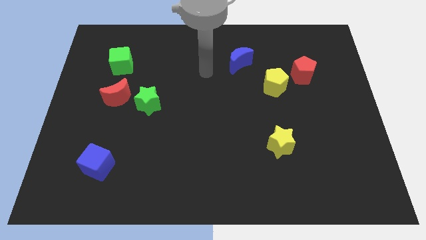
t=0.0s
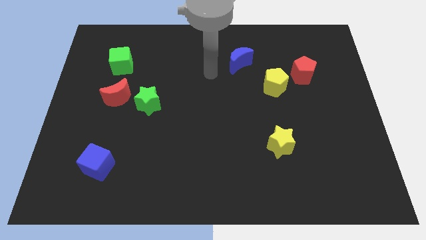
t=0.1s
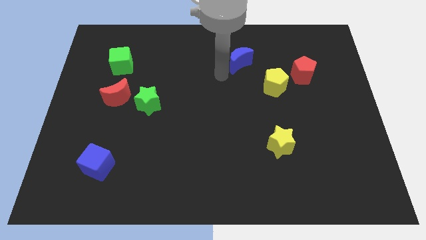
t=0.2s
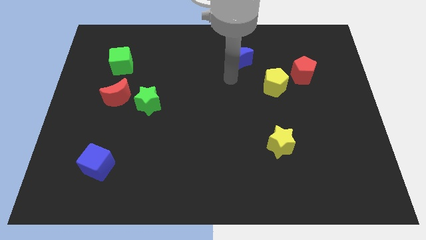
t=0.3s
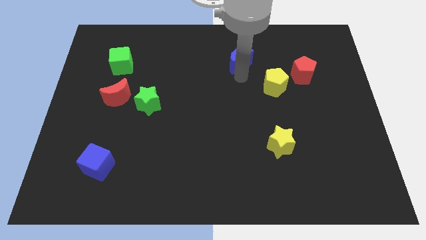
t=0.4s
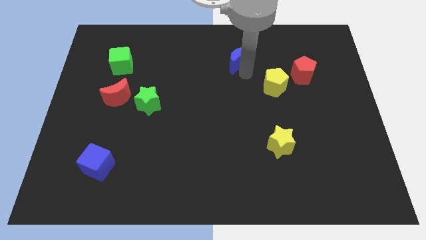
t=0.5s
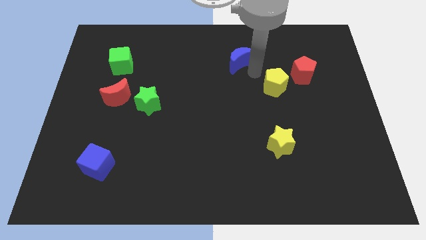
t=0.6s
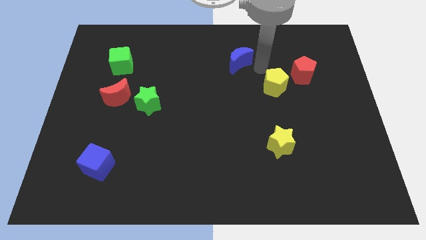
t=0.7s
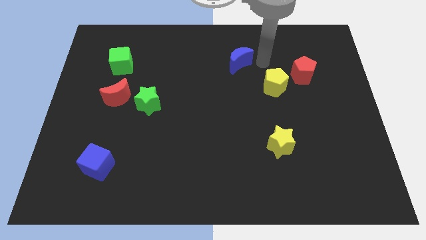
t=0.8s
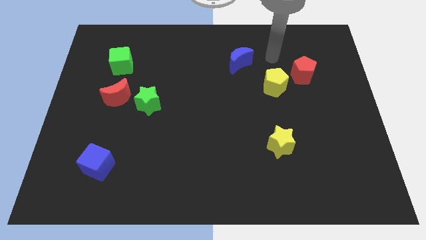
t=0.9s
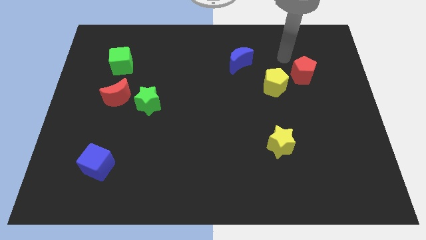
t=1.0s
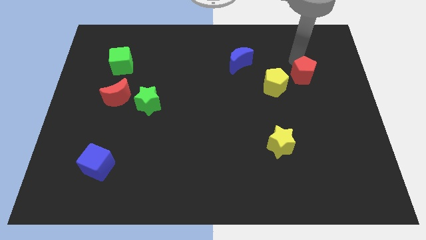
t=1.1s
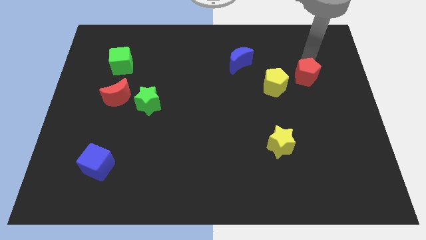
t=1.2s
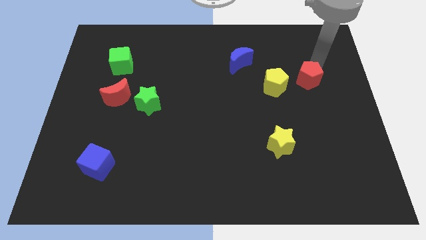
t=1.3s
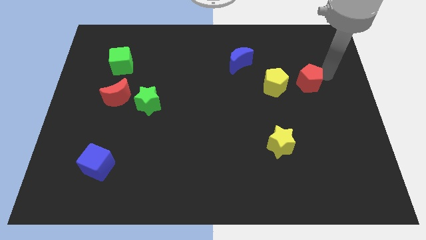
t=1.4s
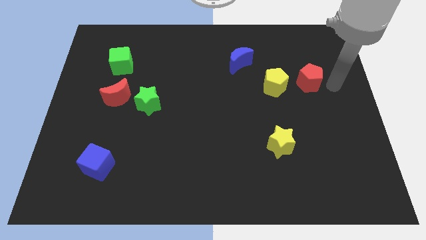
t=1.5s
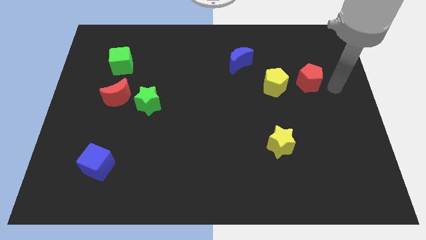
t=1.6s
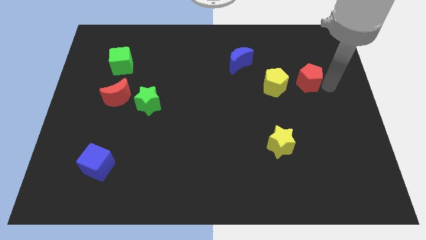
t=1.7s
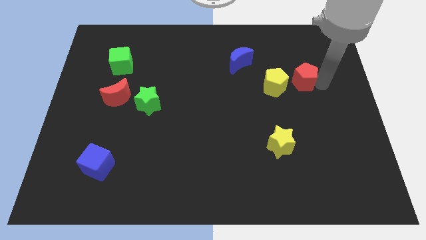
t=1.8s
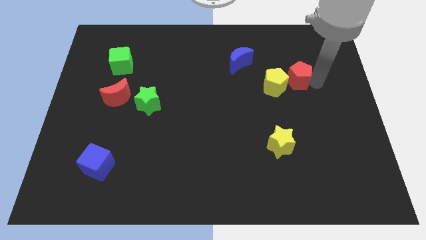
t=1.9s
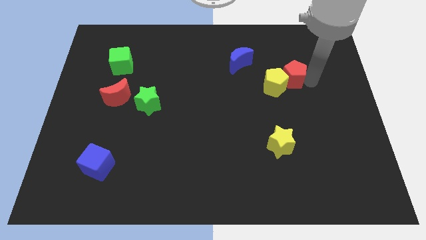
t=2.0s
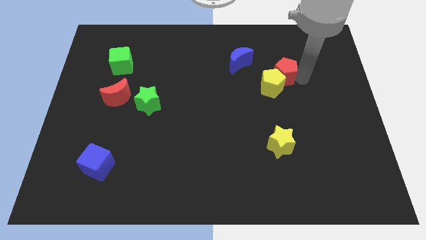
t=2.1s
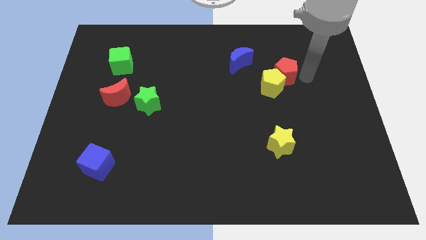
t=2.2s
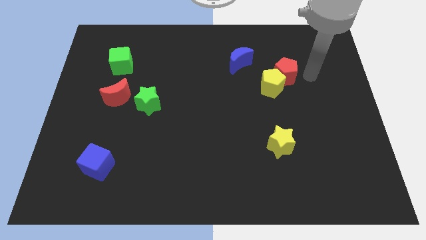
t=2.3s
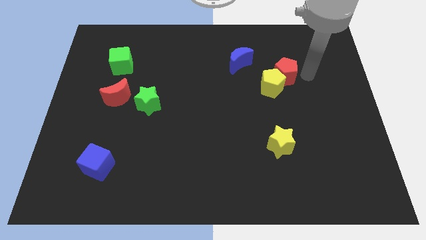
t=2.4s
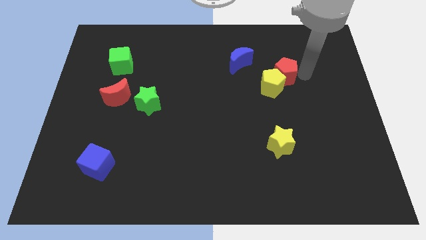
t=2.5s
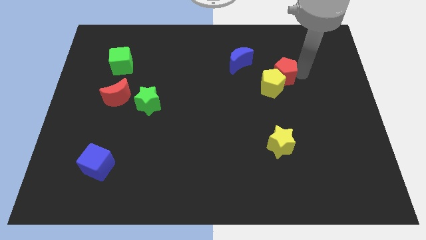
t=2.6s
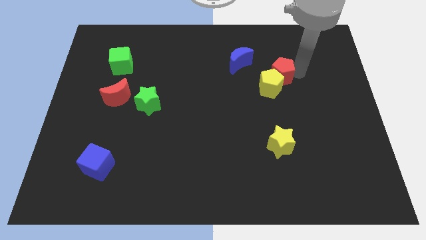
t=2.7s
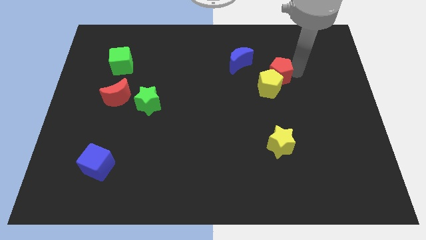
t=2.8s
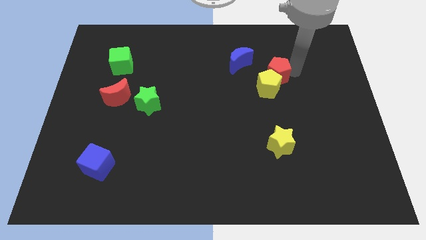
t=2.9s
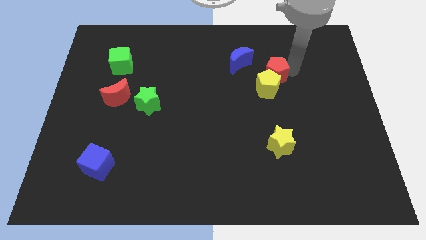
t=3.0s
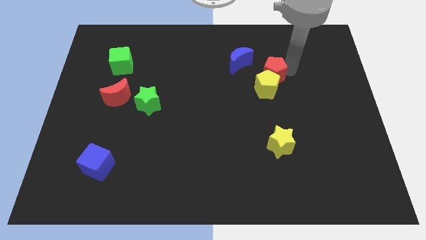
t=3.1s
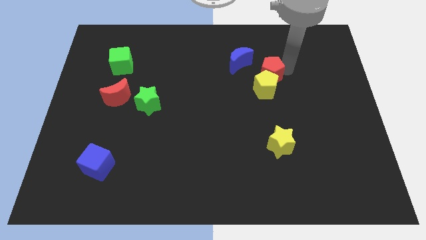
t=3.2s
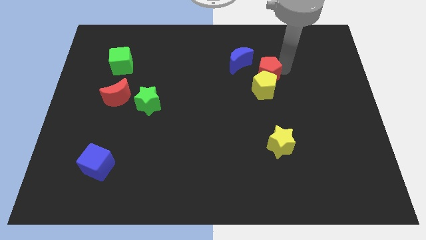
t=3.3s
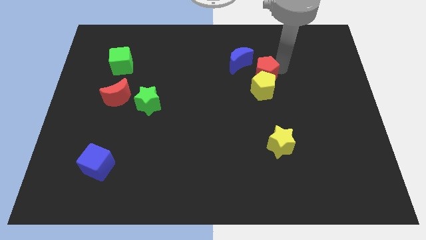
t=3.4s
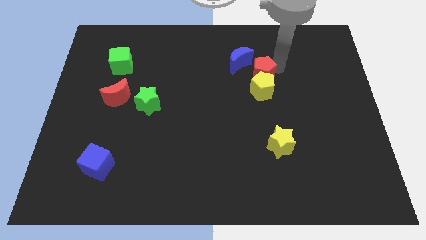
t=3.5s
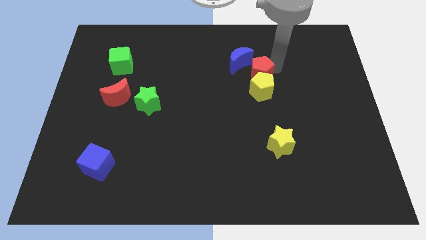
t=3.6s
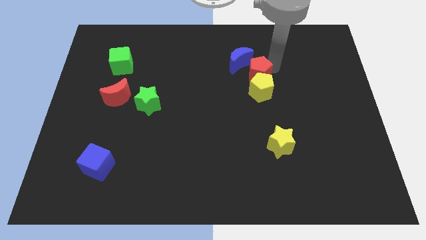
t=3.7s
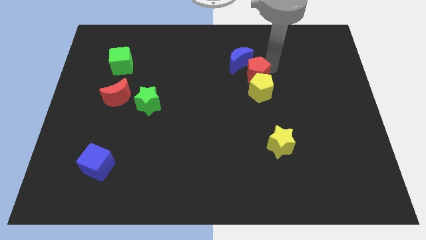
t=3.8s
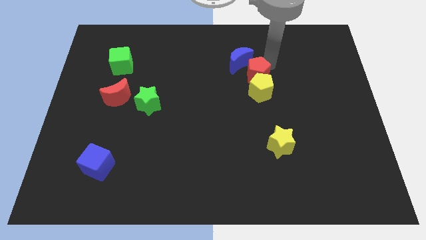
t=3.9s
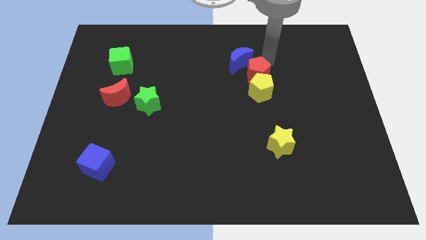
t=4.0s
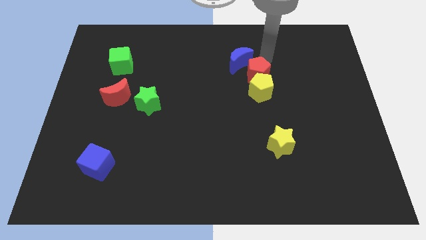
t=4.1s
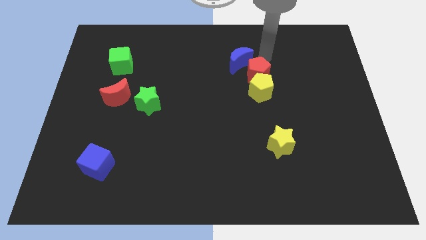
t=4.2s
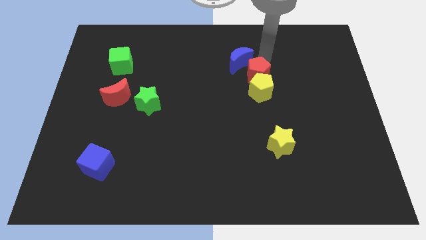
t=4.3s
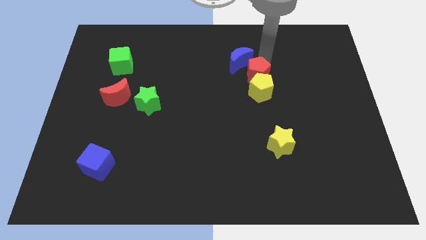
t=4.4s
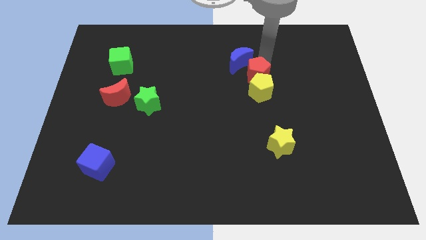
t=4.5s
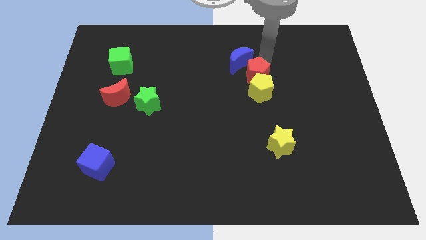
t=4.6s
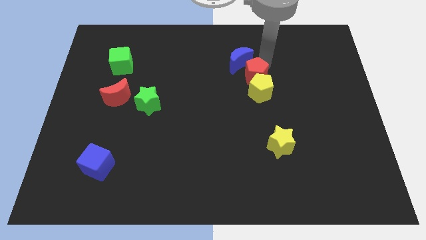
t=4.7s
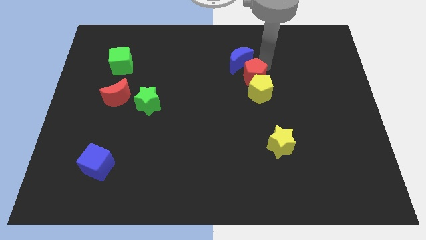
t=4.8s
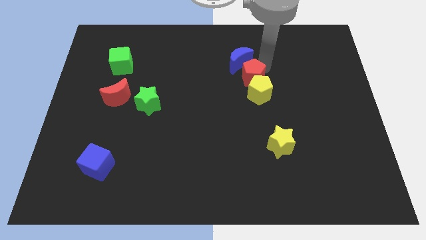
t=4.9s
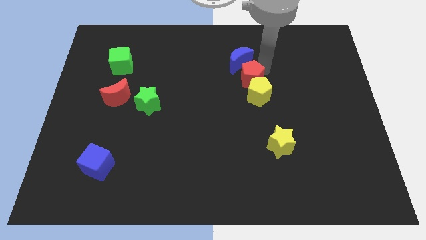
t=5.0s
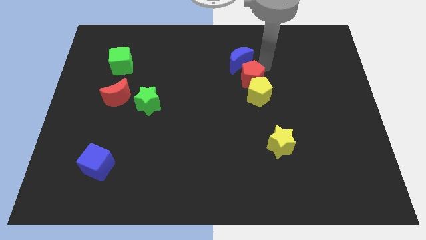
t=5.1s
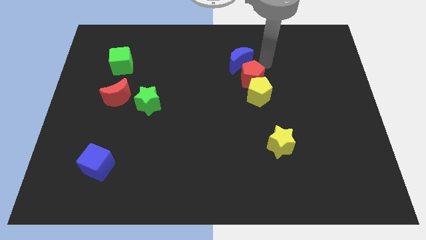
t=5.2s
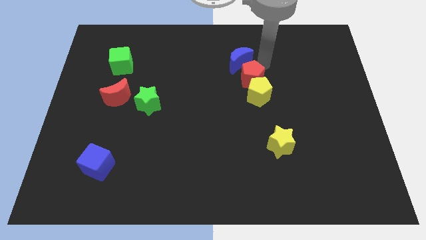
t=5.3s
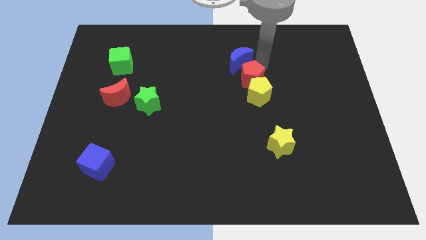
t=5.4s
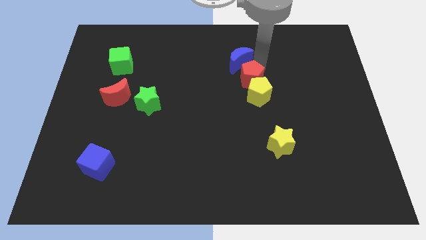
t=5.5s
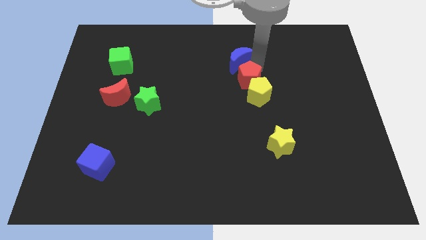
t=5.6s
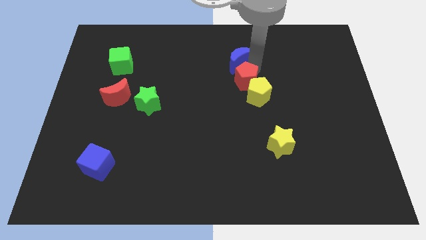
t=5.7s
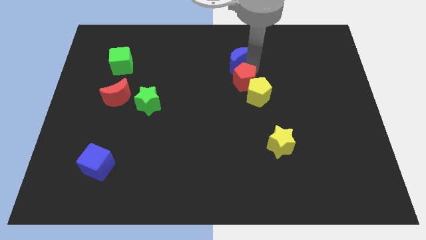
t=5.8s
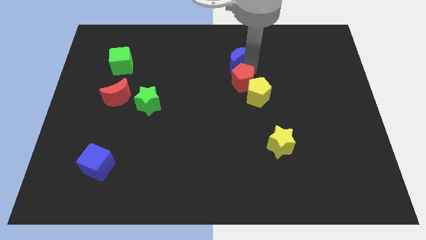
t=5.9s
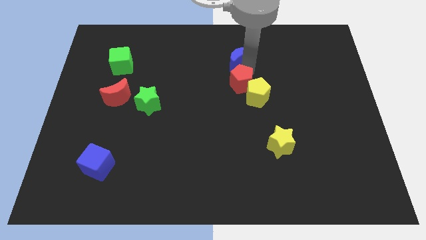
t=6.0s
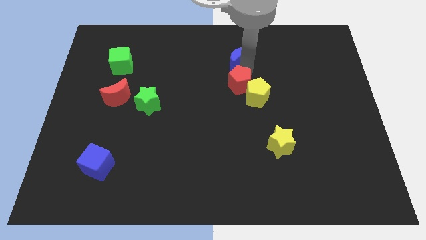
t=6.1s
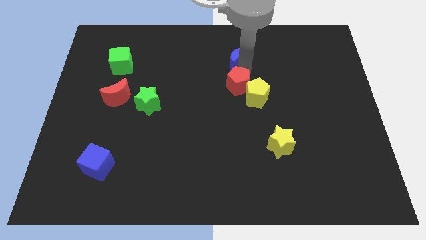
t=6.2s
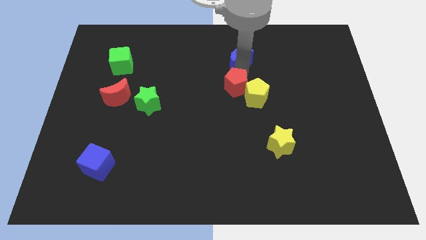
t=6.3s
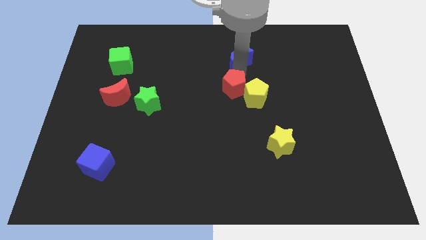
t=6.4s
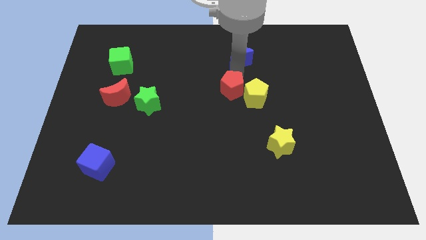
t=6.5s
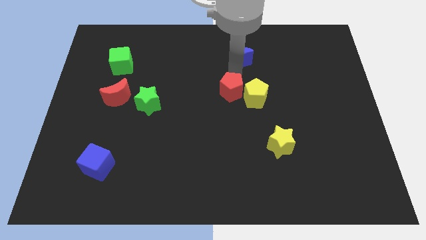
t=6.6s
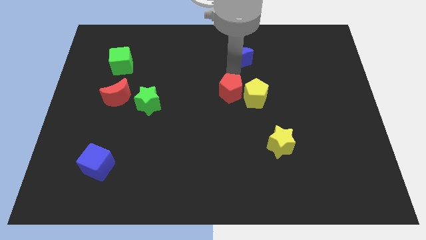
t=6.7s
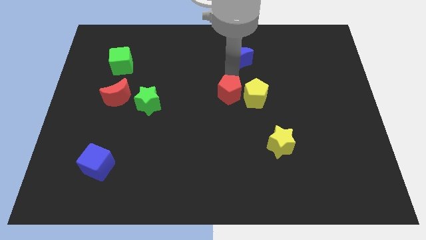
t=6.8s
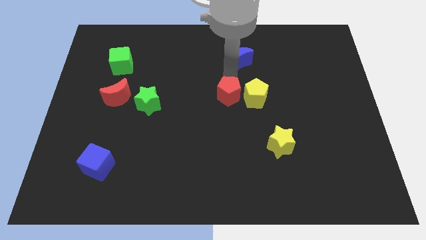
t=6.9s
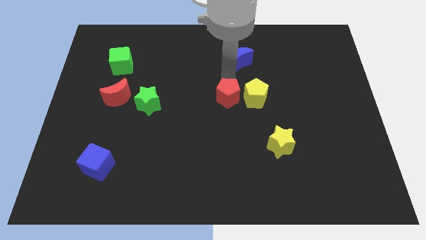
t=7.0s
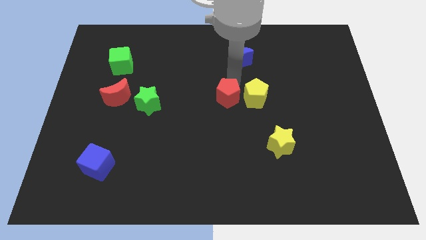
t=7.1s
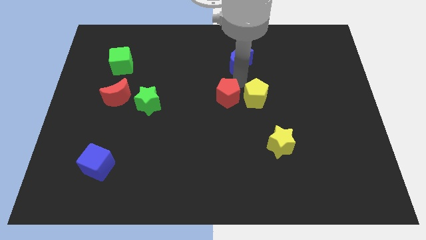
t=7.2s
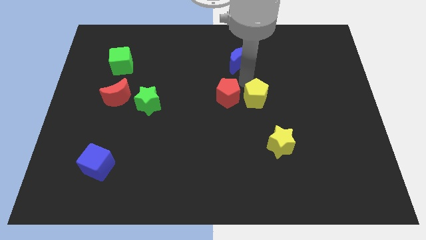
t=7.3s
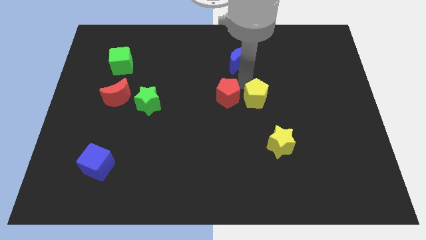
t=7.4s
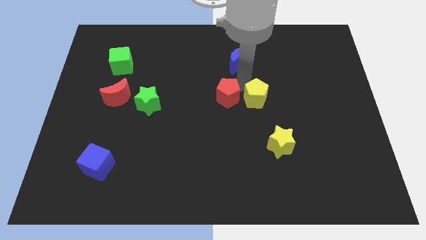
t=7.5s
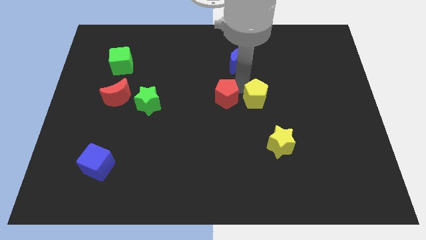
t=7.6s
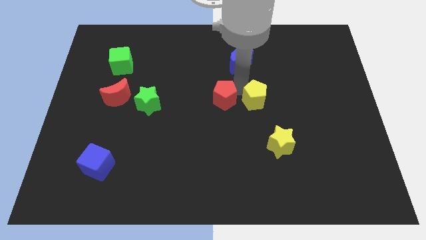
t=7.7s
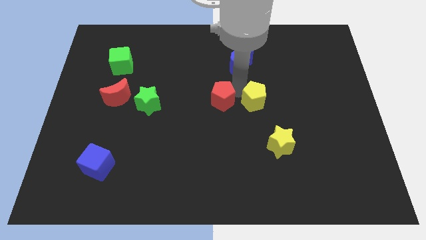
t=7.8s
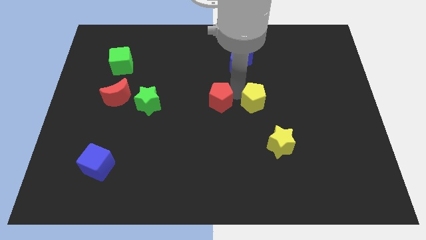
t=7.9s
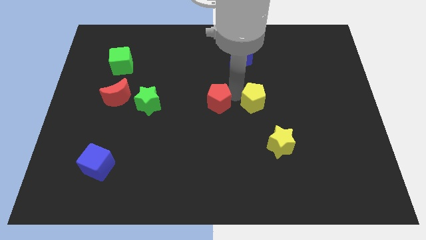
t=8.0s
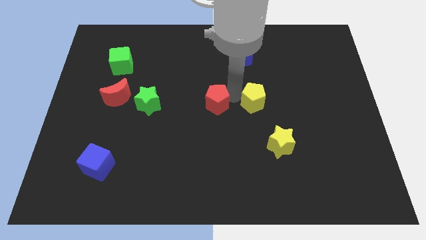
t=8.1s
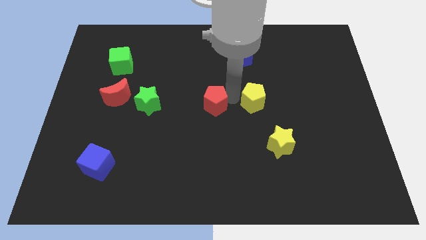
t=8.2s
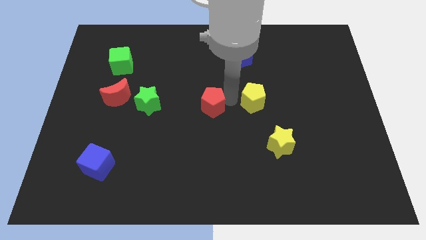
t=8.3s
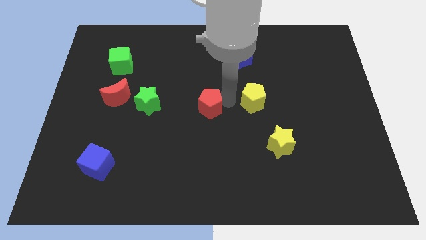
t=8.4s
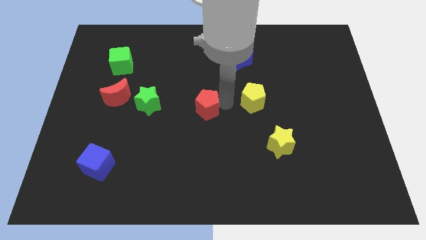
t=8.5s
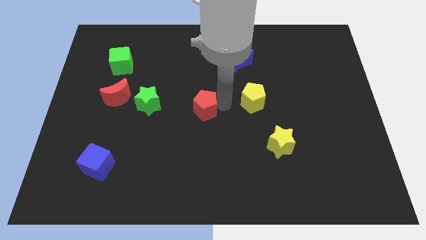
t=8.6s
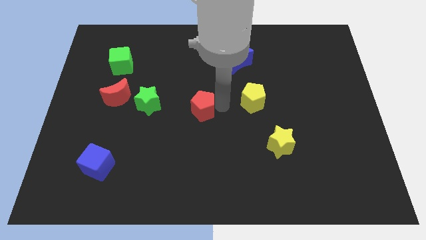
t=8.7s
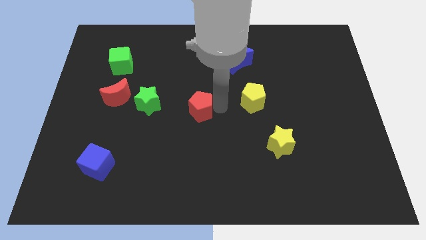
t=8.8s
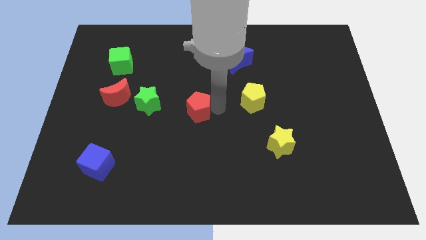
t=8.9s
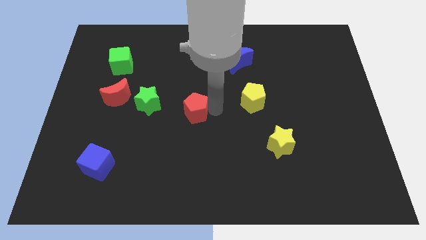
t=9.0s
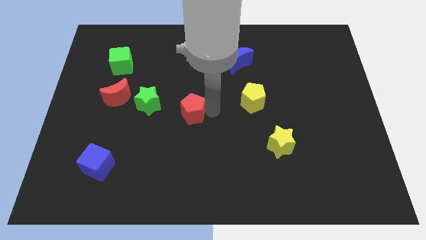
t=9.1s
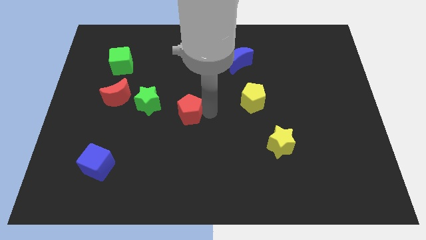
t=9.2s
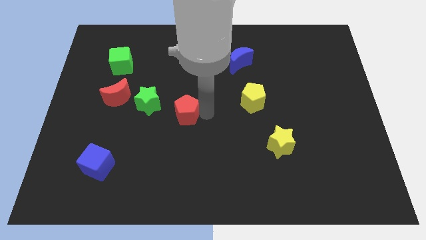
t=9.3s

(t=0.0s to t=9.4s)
push the red pentagon diagonally down and to the right of the green star
